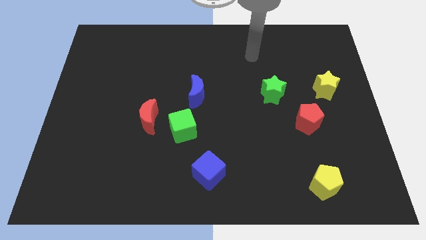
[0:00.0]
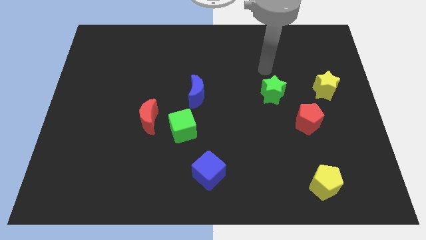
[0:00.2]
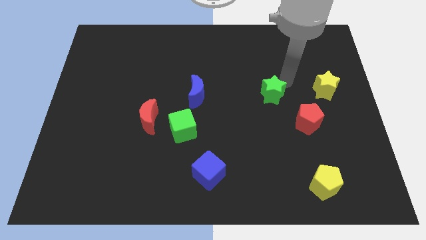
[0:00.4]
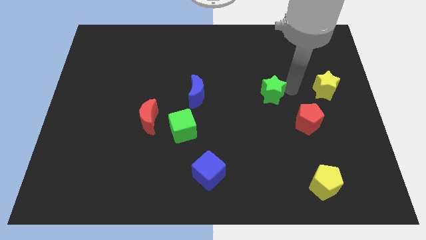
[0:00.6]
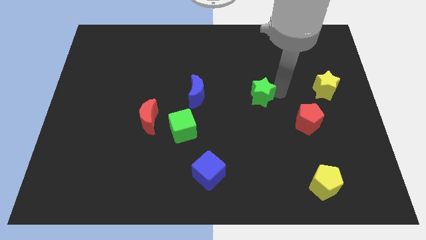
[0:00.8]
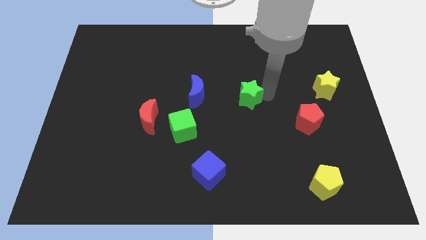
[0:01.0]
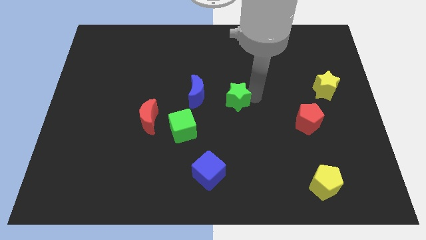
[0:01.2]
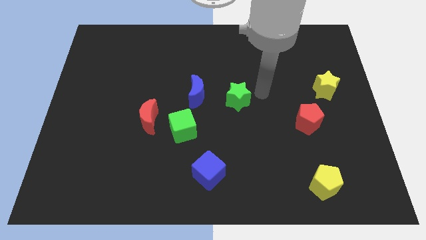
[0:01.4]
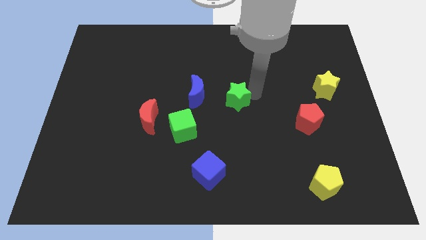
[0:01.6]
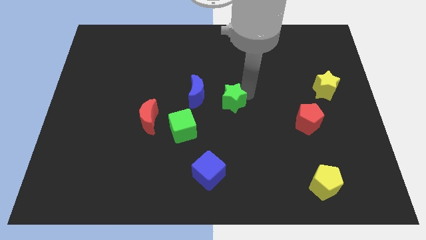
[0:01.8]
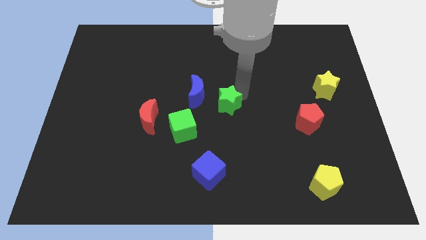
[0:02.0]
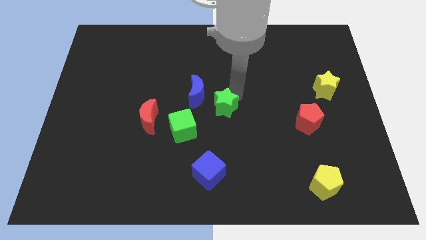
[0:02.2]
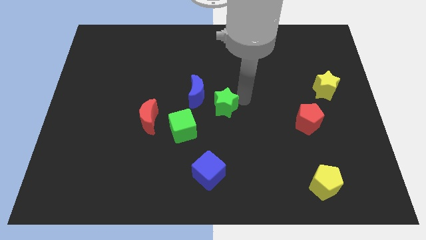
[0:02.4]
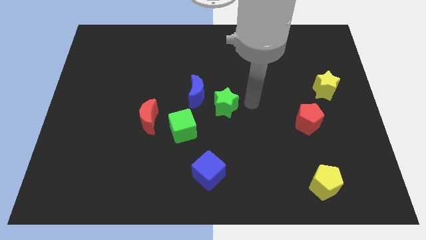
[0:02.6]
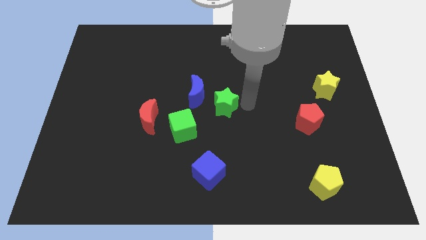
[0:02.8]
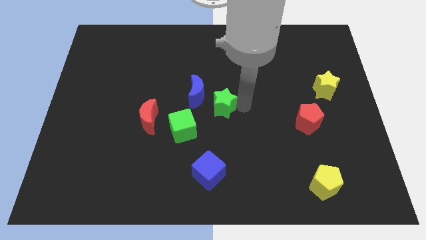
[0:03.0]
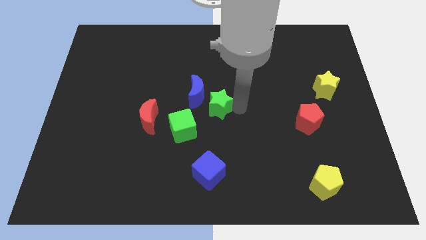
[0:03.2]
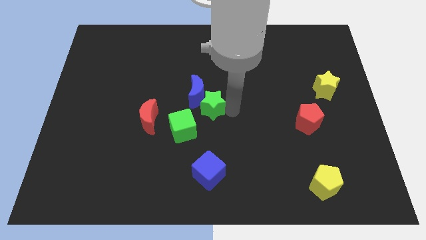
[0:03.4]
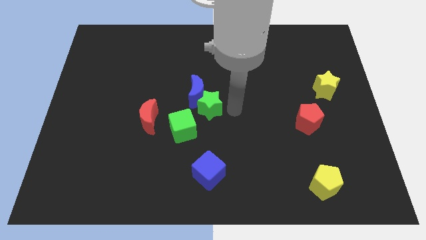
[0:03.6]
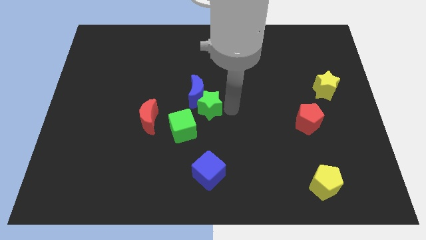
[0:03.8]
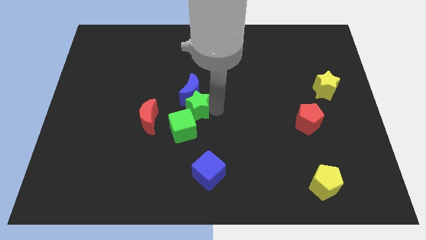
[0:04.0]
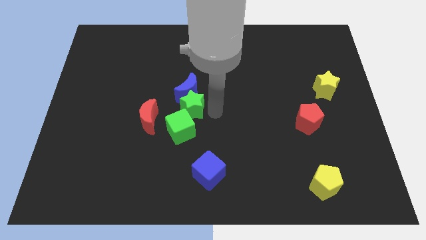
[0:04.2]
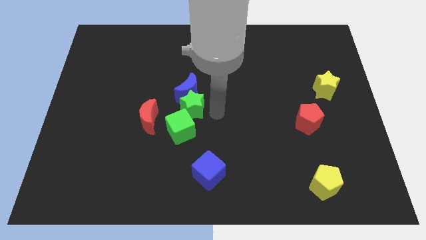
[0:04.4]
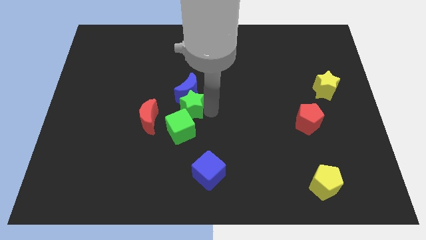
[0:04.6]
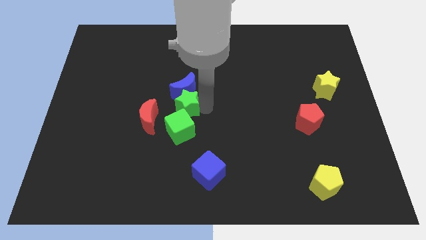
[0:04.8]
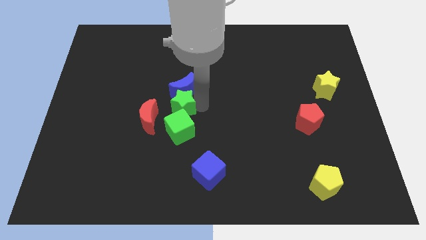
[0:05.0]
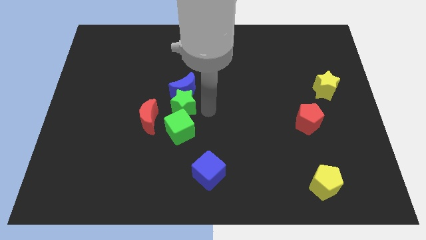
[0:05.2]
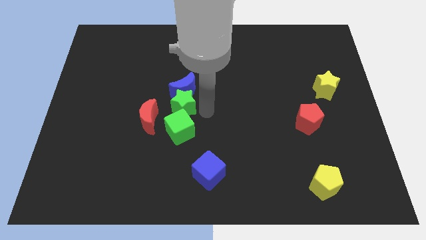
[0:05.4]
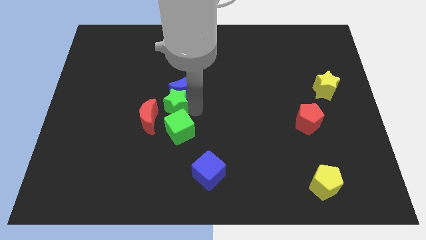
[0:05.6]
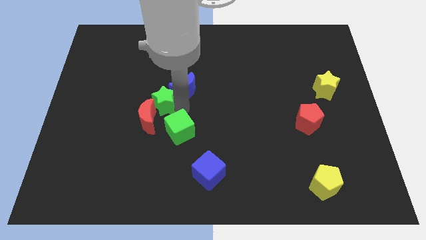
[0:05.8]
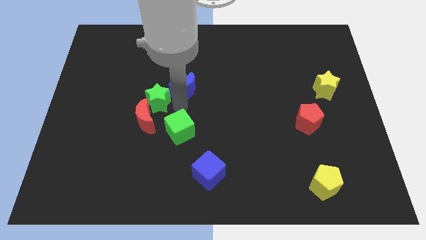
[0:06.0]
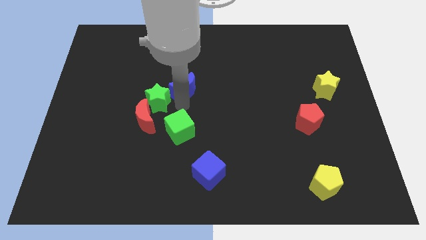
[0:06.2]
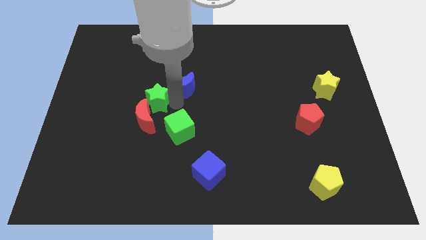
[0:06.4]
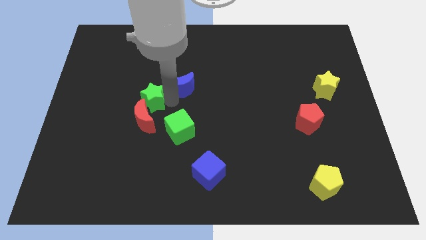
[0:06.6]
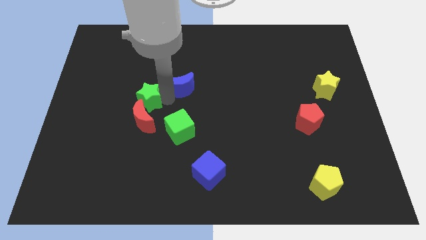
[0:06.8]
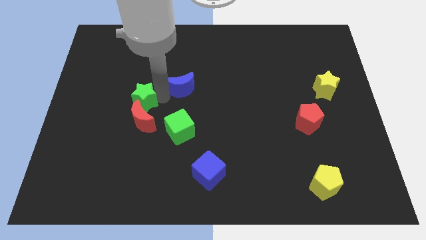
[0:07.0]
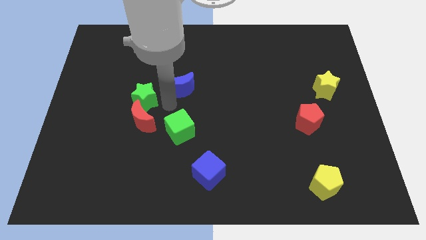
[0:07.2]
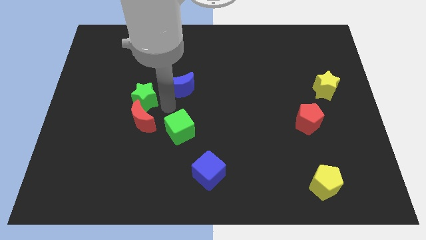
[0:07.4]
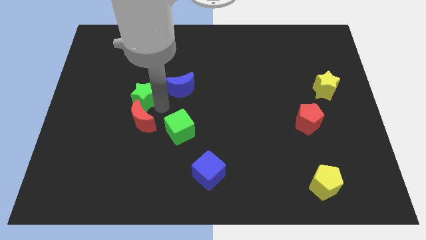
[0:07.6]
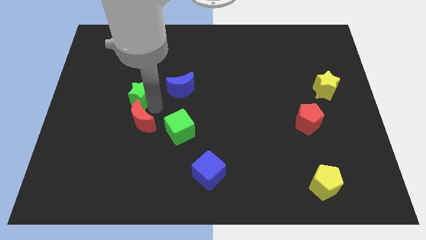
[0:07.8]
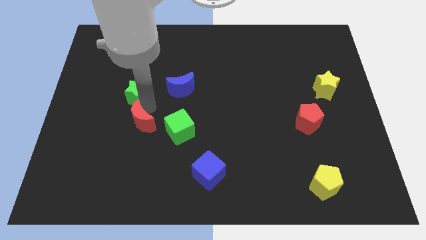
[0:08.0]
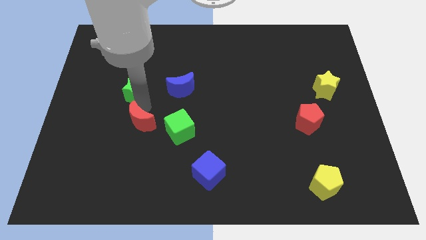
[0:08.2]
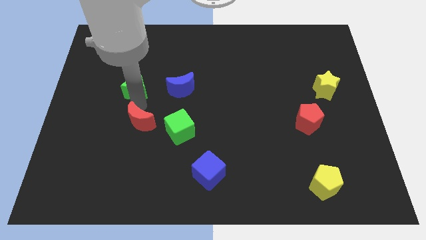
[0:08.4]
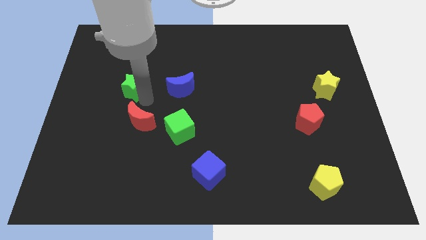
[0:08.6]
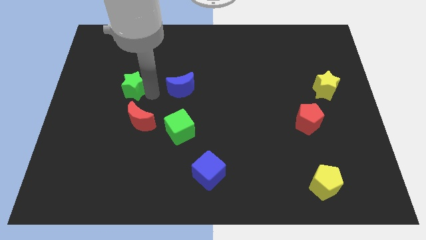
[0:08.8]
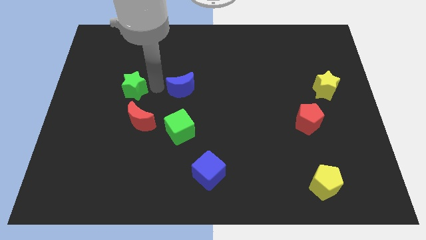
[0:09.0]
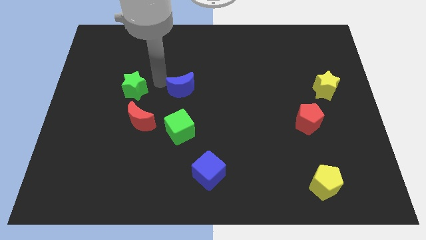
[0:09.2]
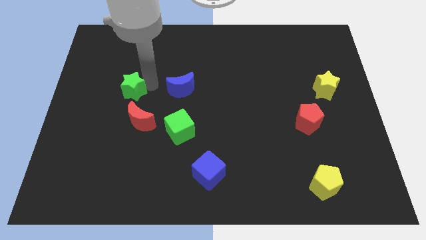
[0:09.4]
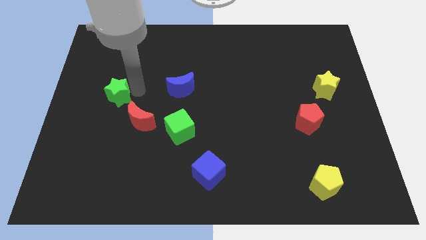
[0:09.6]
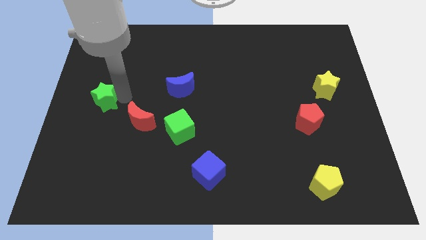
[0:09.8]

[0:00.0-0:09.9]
slide the green star to the center left

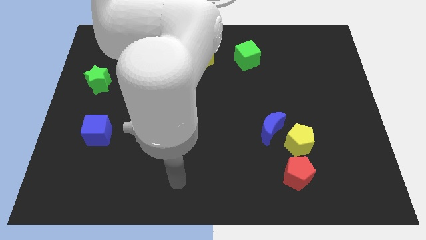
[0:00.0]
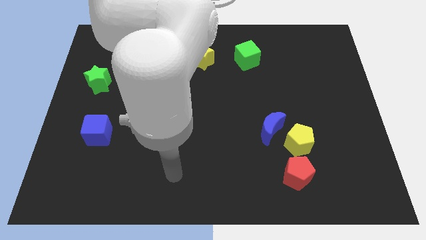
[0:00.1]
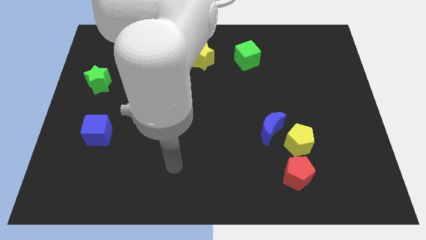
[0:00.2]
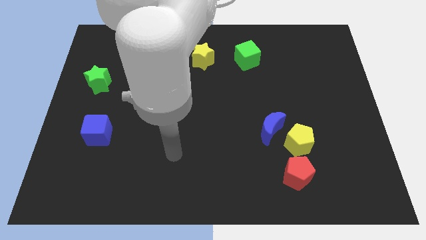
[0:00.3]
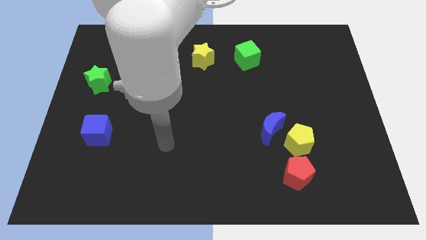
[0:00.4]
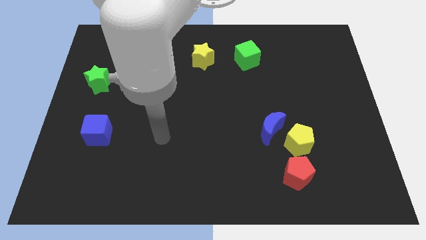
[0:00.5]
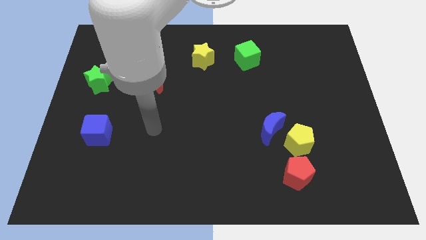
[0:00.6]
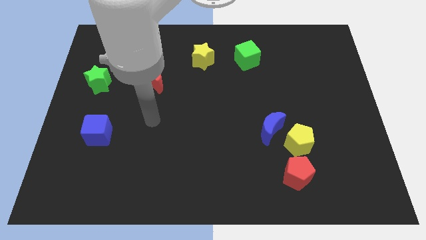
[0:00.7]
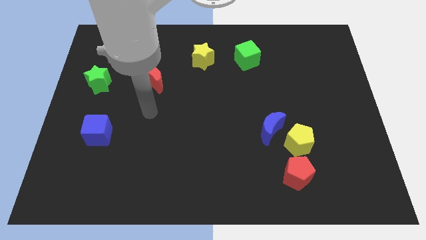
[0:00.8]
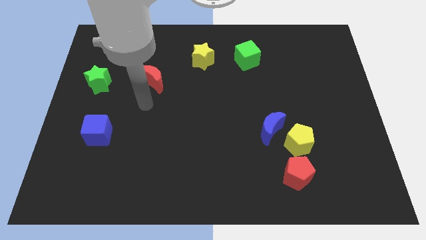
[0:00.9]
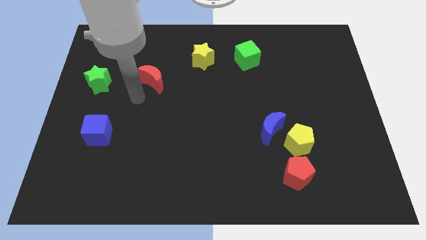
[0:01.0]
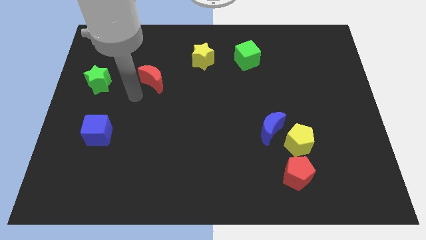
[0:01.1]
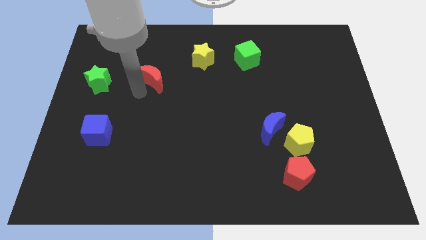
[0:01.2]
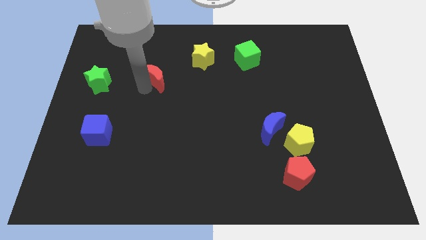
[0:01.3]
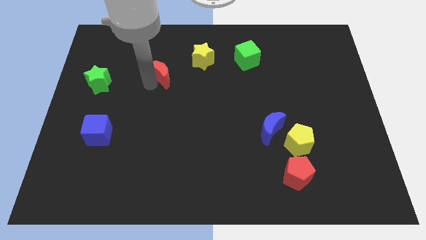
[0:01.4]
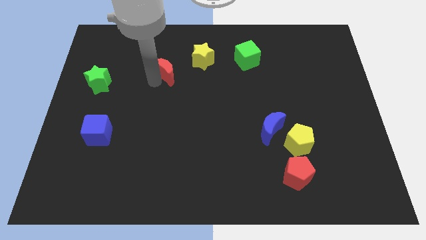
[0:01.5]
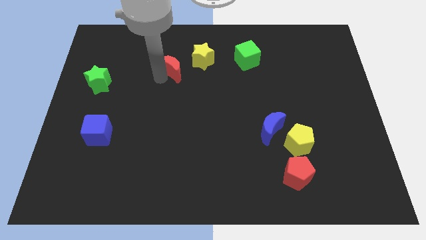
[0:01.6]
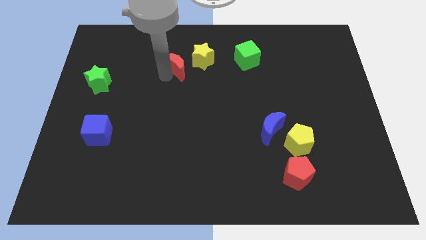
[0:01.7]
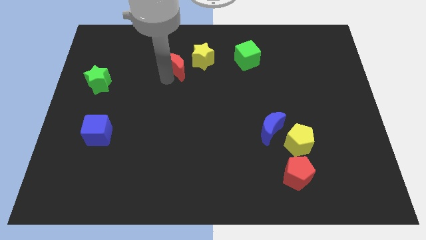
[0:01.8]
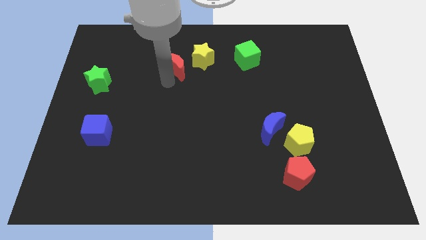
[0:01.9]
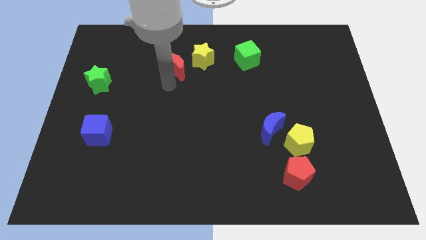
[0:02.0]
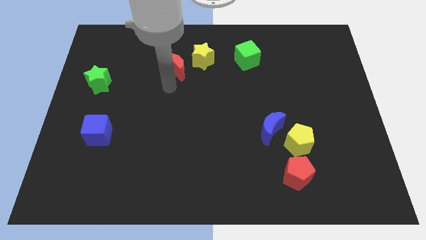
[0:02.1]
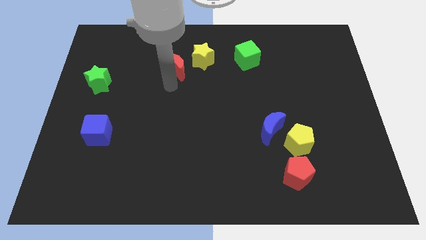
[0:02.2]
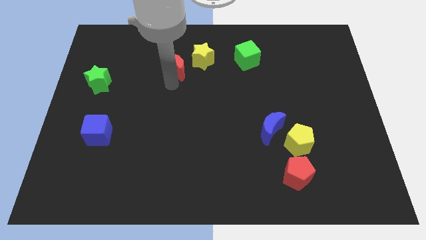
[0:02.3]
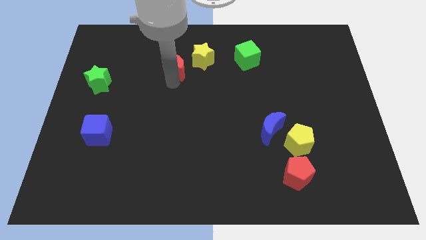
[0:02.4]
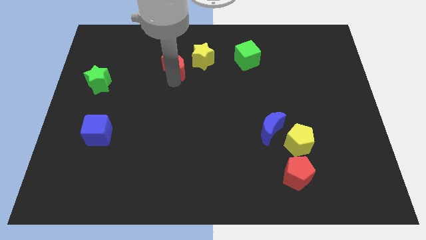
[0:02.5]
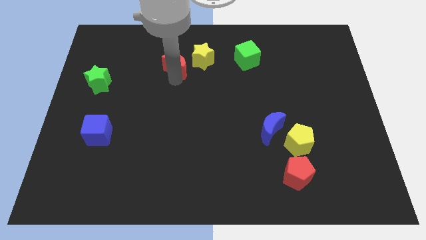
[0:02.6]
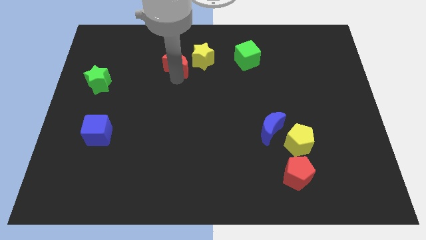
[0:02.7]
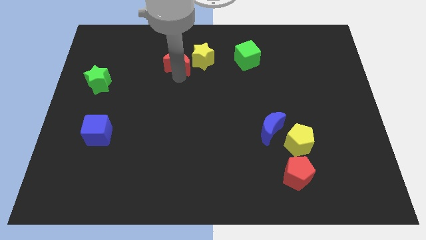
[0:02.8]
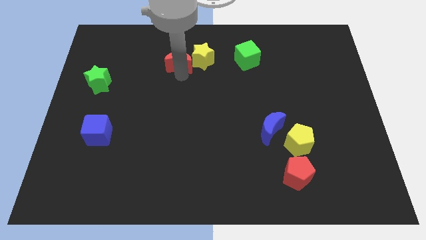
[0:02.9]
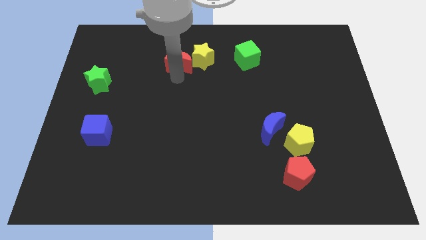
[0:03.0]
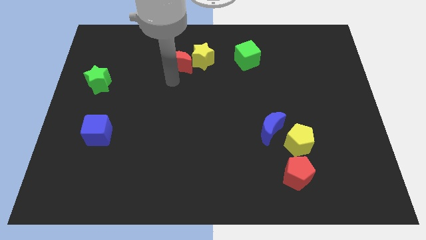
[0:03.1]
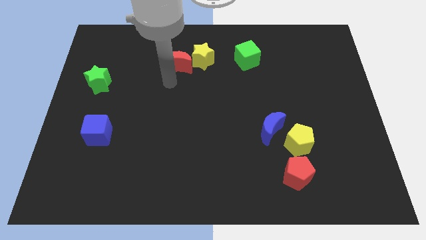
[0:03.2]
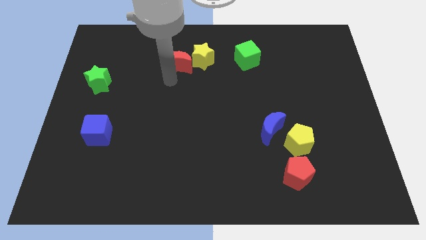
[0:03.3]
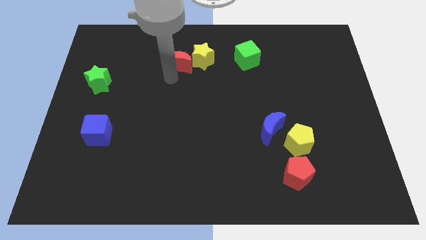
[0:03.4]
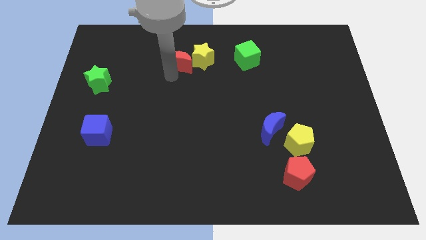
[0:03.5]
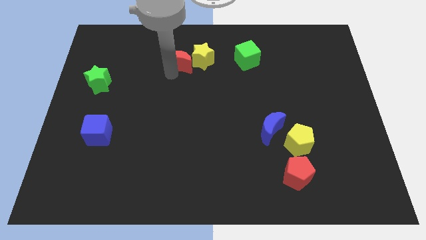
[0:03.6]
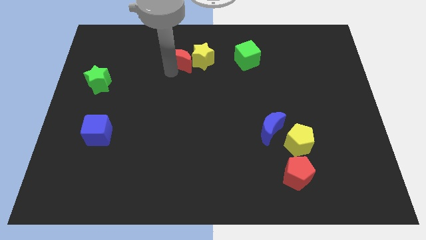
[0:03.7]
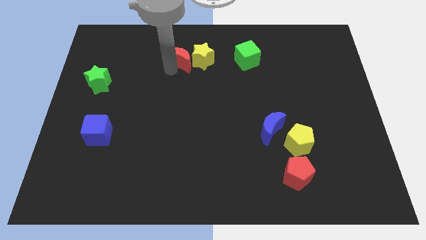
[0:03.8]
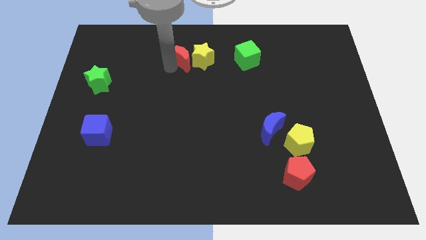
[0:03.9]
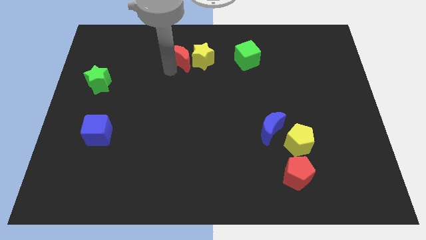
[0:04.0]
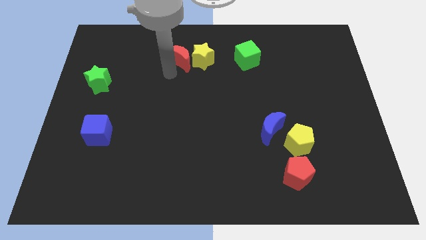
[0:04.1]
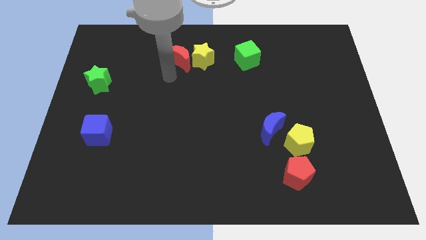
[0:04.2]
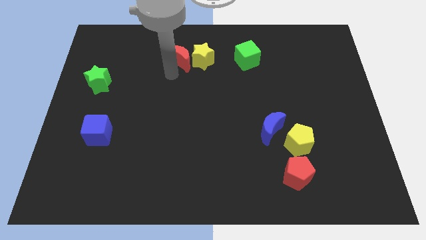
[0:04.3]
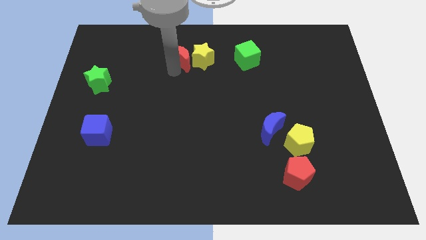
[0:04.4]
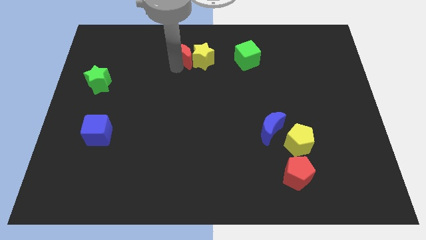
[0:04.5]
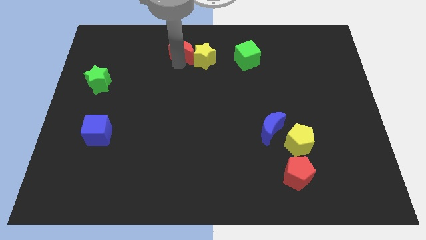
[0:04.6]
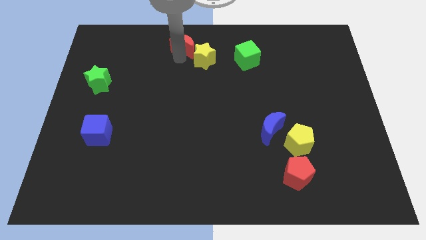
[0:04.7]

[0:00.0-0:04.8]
slide the red moon to the towards your base
